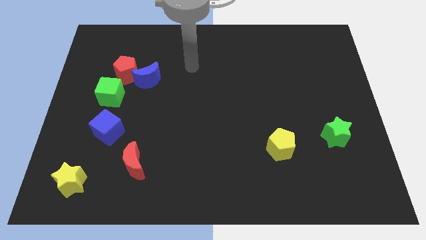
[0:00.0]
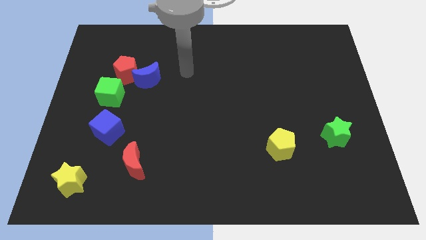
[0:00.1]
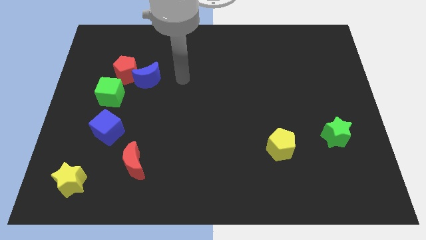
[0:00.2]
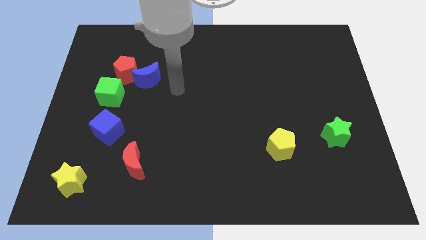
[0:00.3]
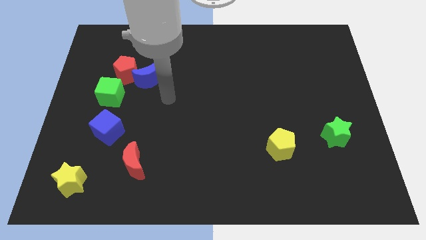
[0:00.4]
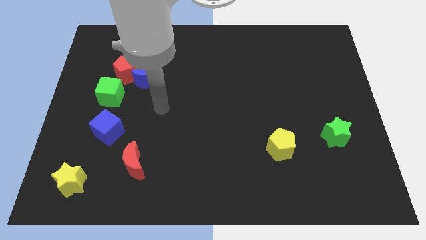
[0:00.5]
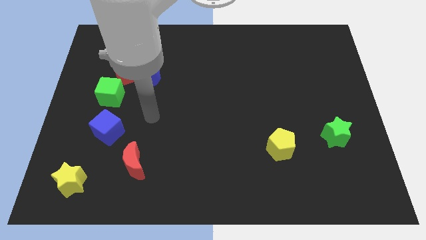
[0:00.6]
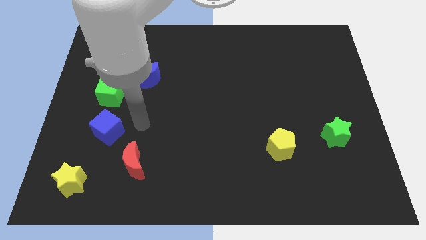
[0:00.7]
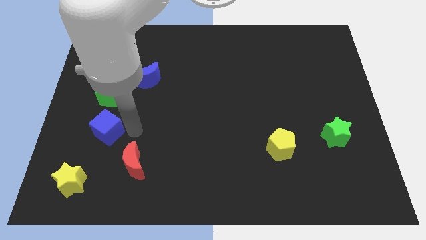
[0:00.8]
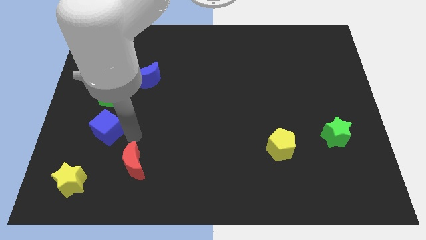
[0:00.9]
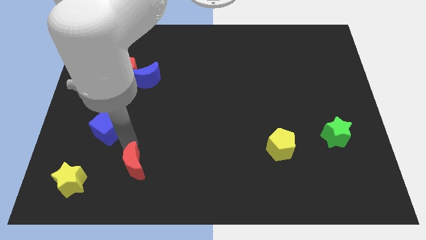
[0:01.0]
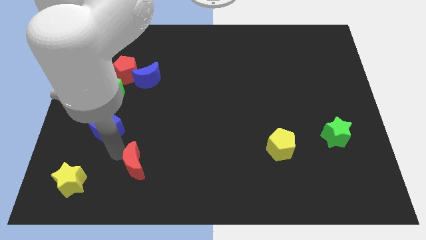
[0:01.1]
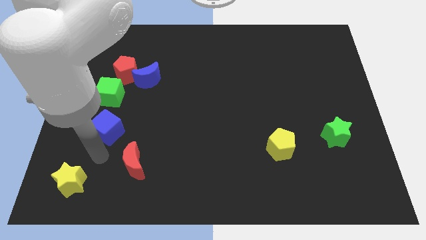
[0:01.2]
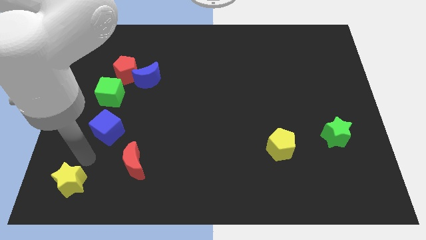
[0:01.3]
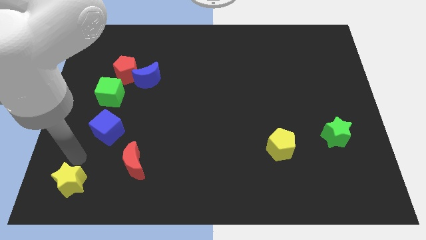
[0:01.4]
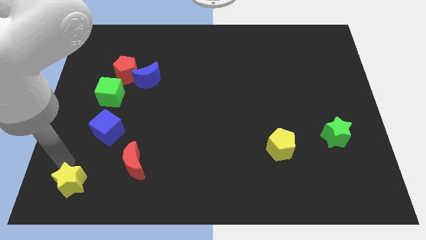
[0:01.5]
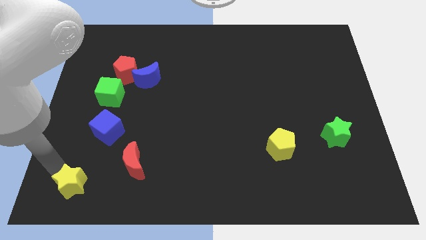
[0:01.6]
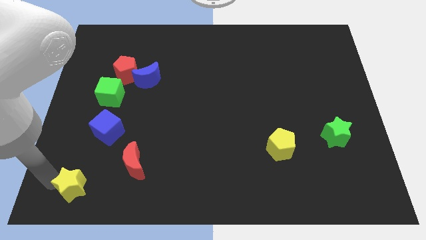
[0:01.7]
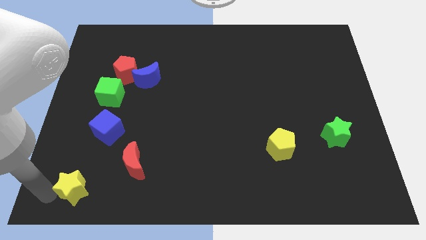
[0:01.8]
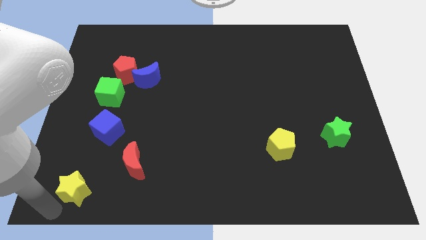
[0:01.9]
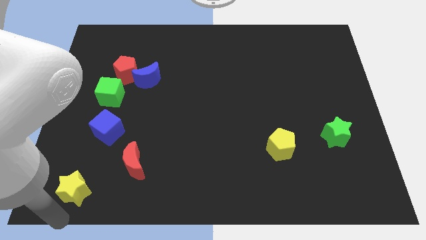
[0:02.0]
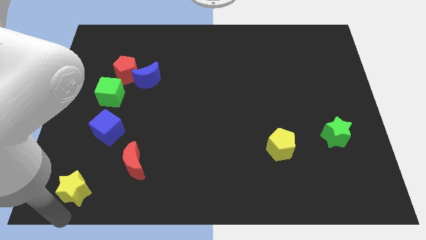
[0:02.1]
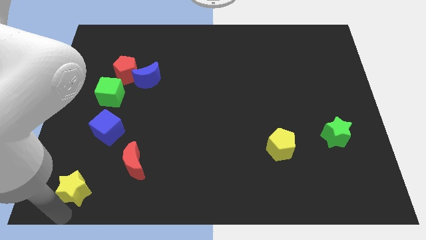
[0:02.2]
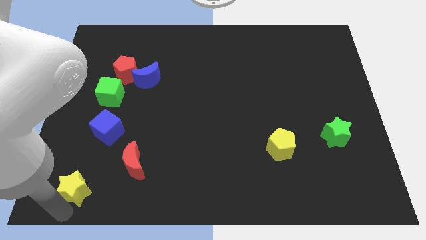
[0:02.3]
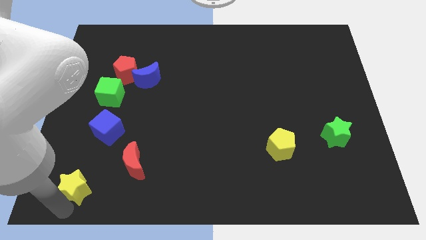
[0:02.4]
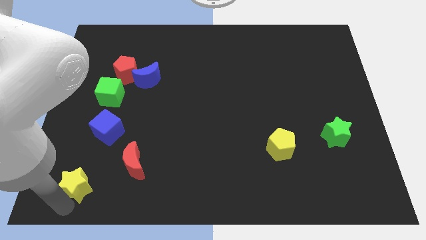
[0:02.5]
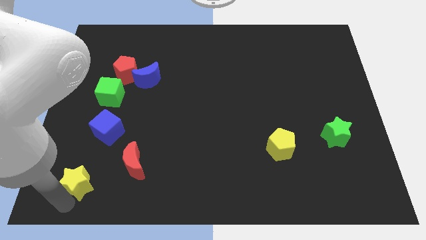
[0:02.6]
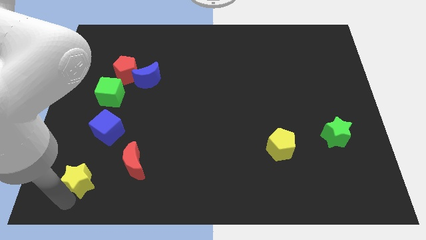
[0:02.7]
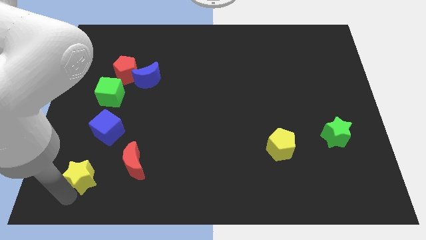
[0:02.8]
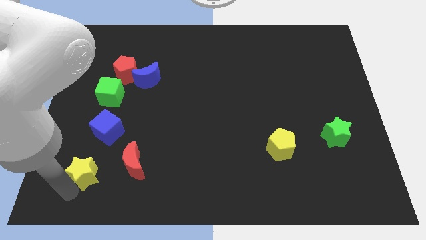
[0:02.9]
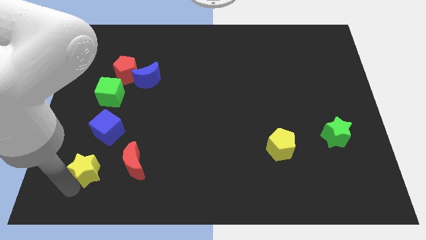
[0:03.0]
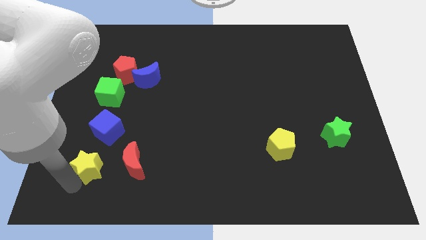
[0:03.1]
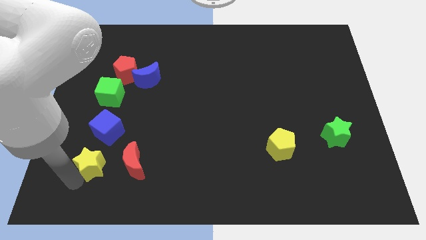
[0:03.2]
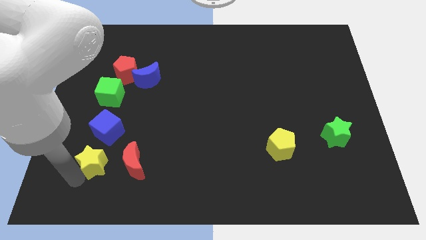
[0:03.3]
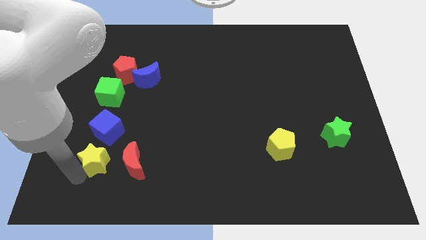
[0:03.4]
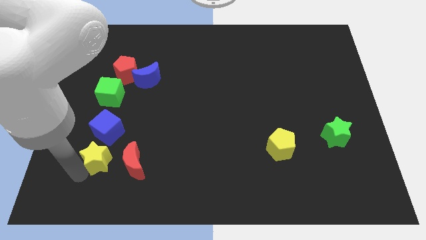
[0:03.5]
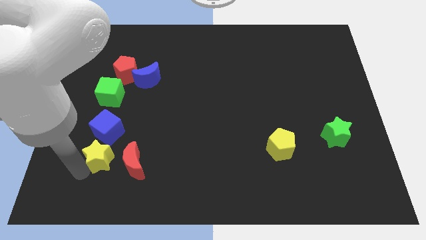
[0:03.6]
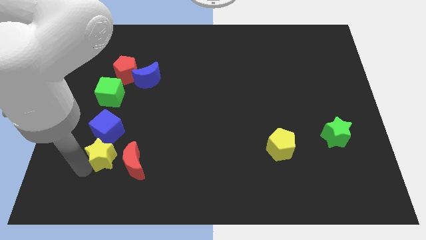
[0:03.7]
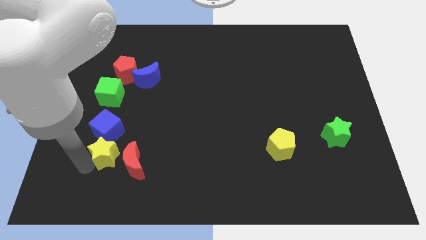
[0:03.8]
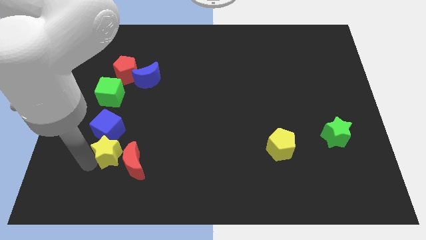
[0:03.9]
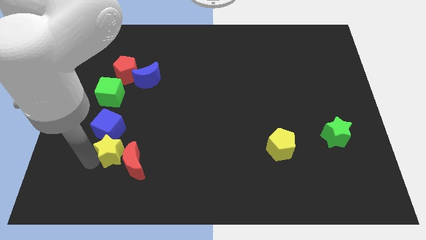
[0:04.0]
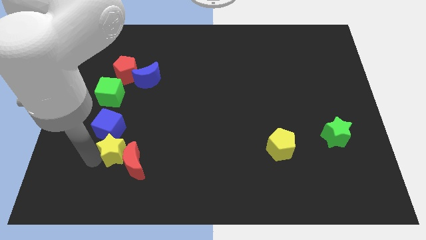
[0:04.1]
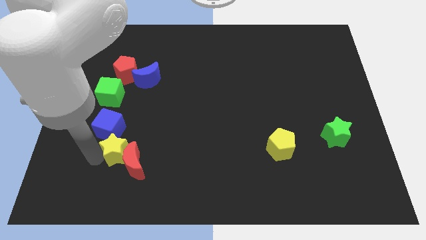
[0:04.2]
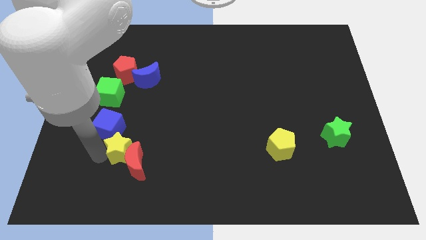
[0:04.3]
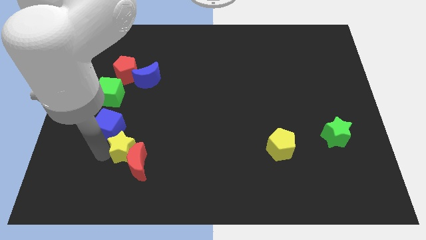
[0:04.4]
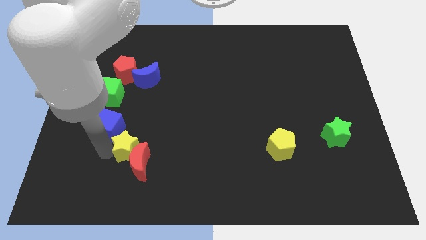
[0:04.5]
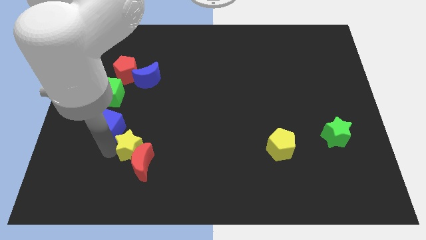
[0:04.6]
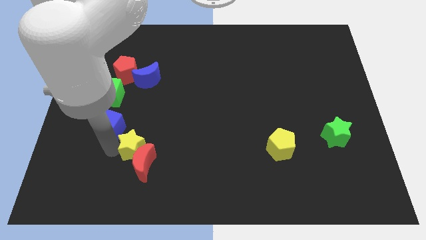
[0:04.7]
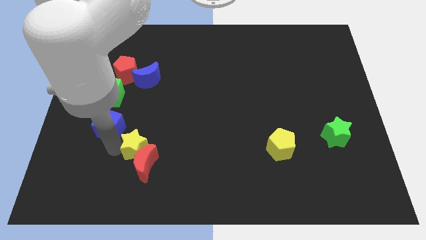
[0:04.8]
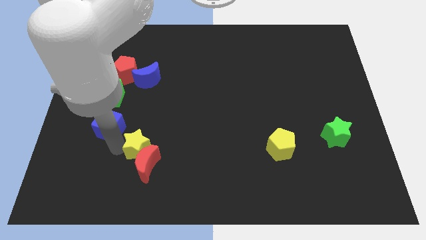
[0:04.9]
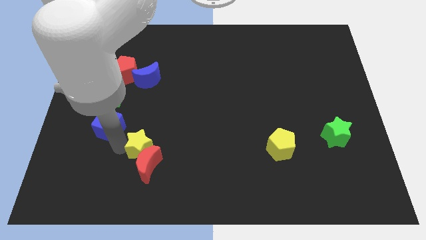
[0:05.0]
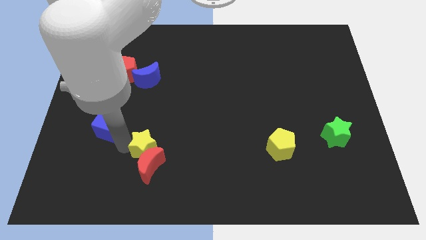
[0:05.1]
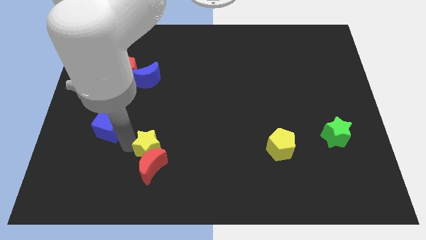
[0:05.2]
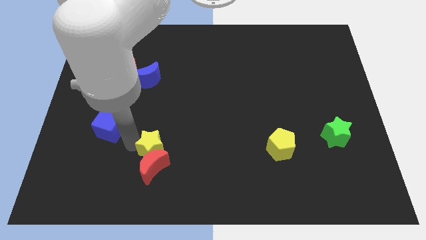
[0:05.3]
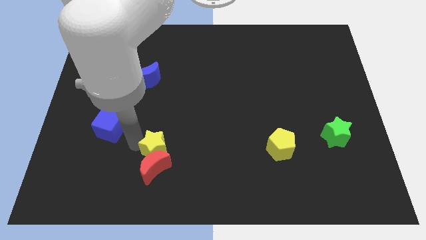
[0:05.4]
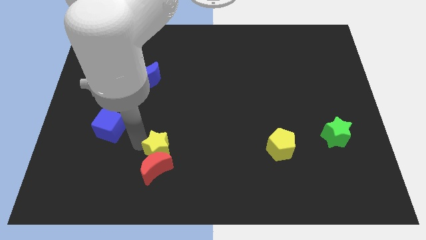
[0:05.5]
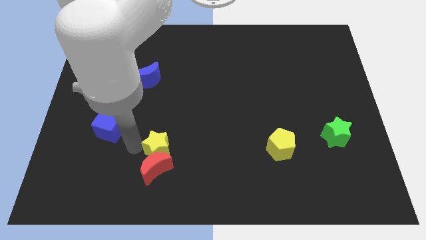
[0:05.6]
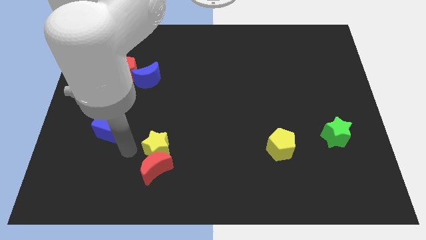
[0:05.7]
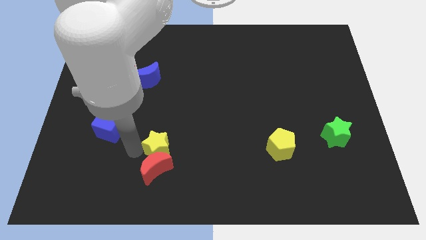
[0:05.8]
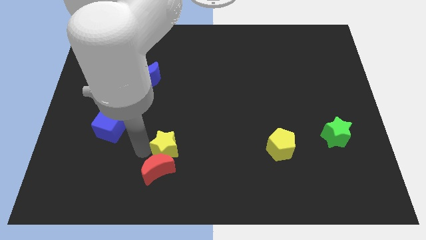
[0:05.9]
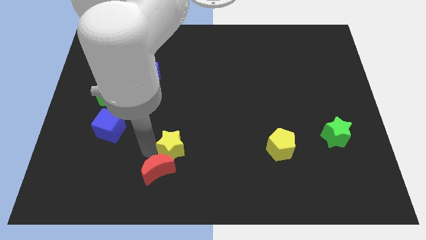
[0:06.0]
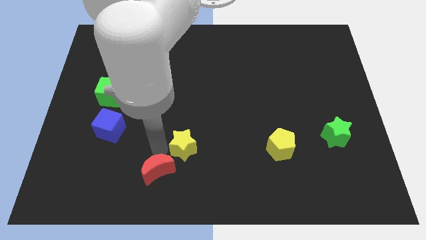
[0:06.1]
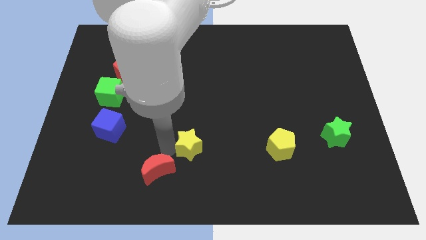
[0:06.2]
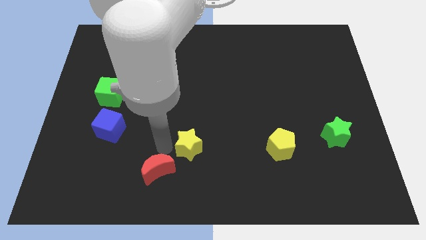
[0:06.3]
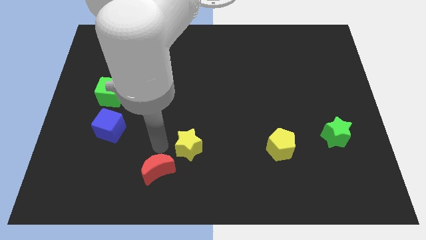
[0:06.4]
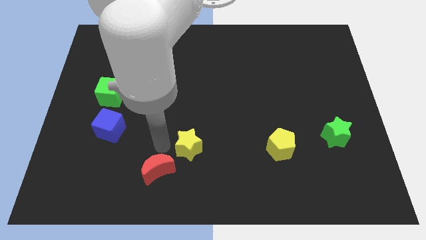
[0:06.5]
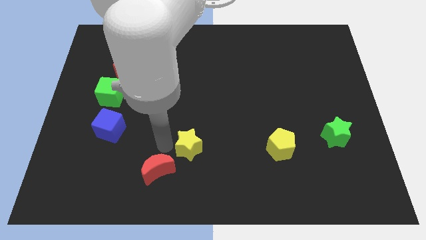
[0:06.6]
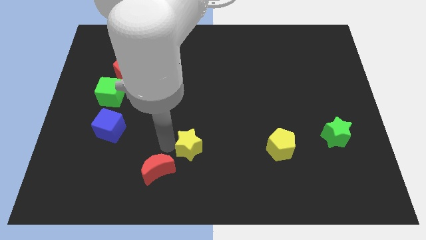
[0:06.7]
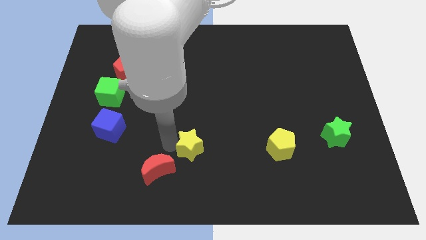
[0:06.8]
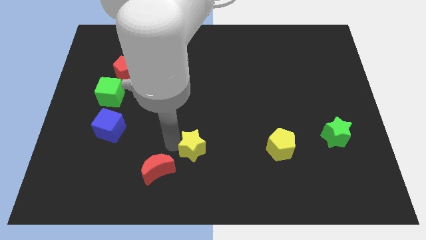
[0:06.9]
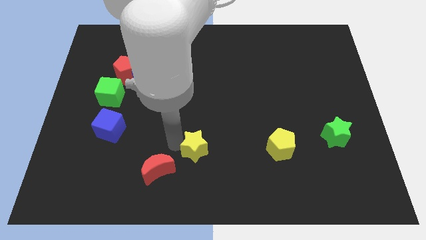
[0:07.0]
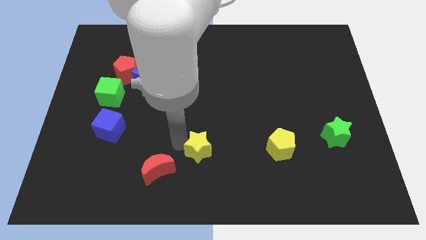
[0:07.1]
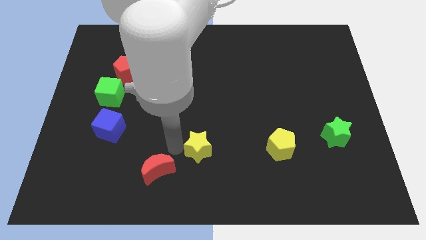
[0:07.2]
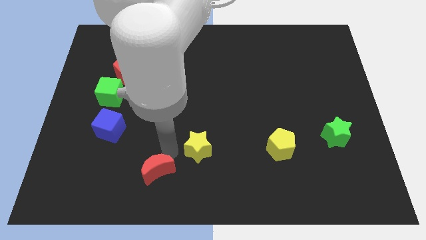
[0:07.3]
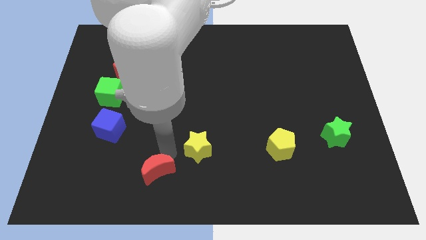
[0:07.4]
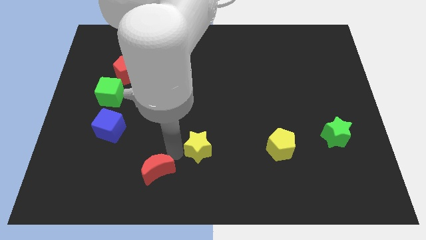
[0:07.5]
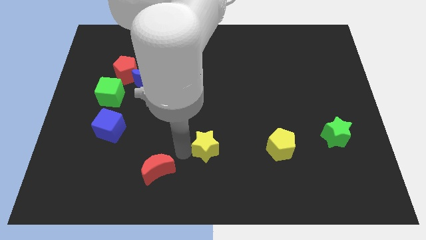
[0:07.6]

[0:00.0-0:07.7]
put the yellow star to the left side of the yellow pentagon

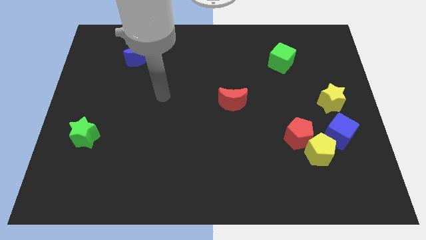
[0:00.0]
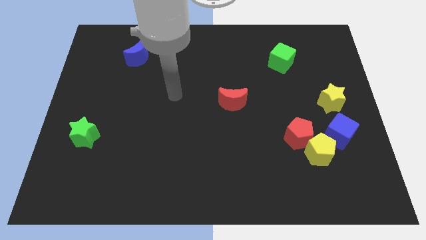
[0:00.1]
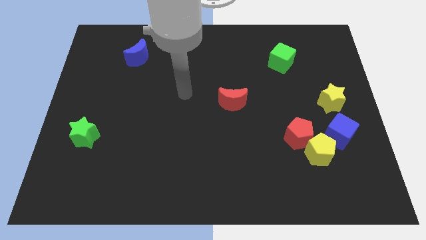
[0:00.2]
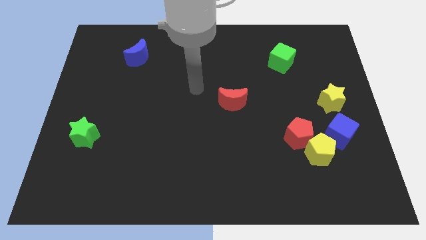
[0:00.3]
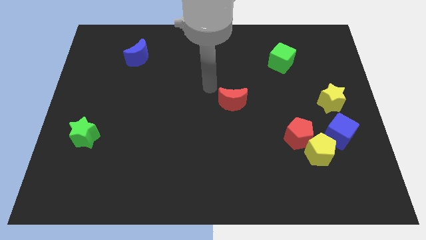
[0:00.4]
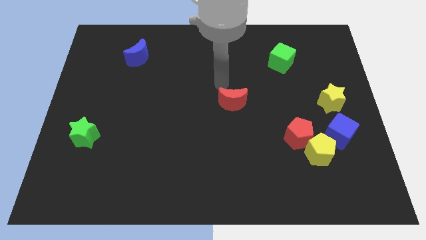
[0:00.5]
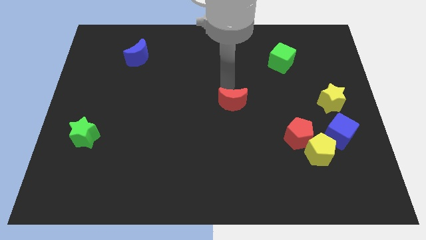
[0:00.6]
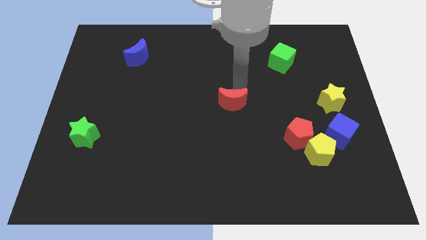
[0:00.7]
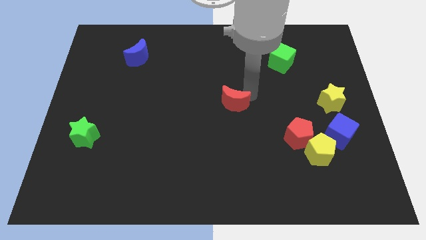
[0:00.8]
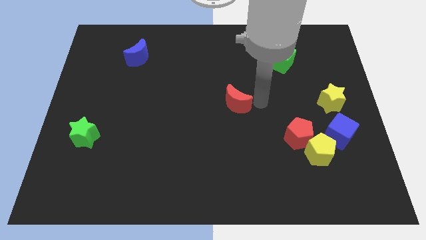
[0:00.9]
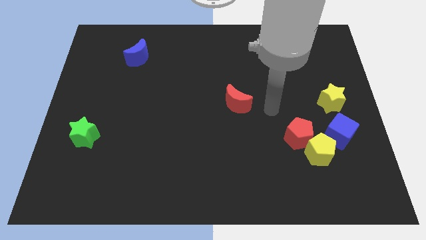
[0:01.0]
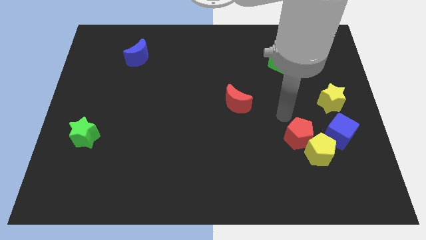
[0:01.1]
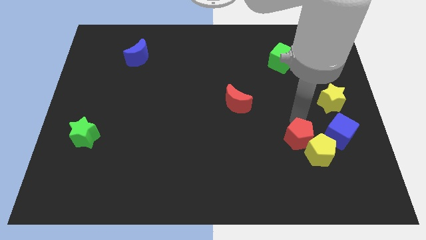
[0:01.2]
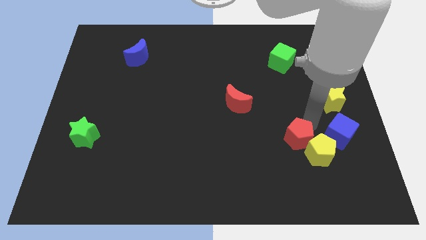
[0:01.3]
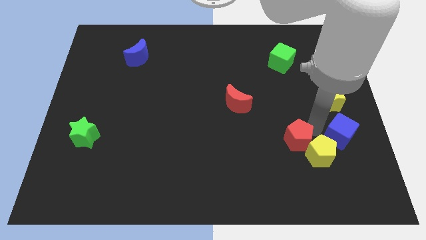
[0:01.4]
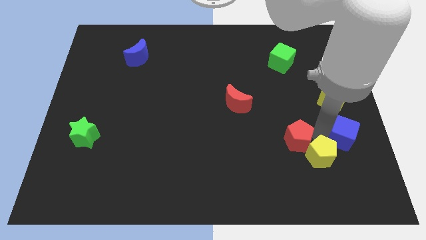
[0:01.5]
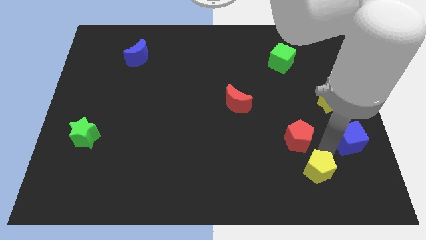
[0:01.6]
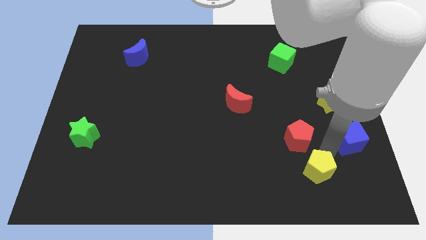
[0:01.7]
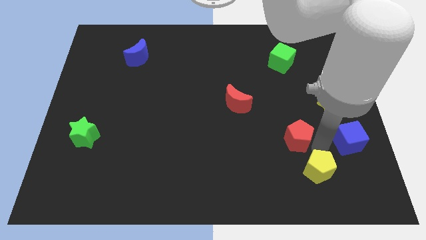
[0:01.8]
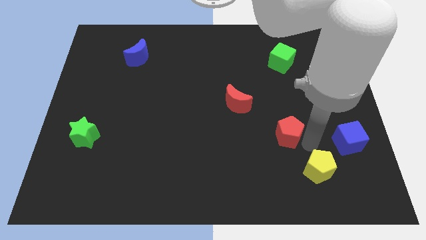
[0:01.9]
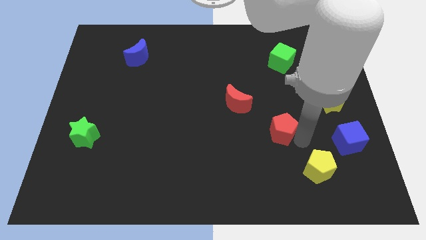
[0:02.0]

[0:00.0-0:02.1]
move the red pentagon diagonally down and to the right of the red moon
